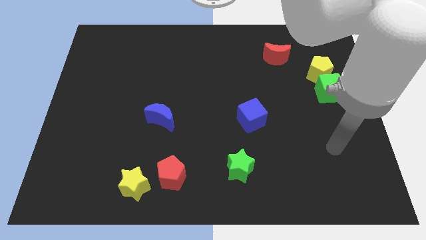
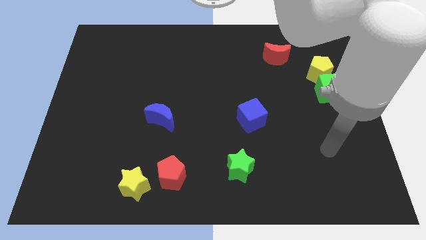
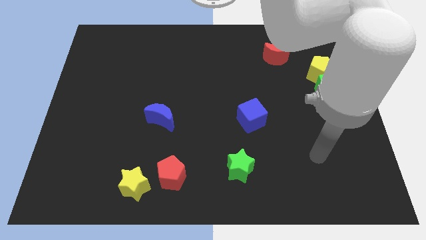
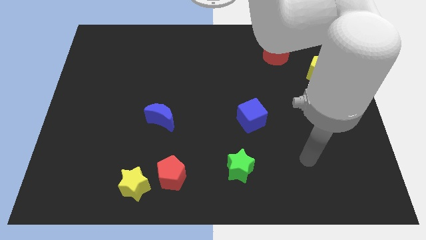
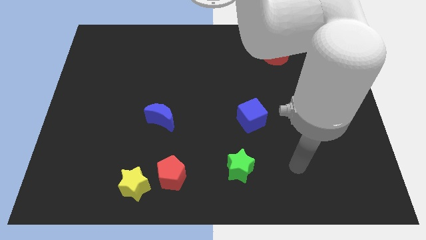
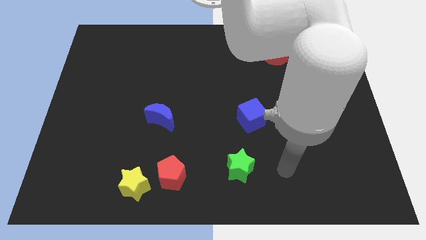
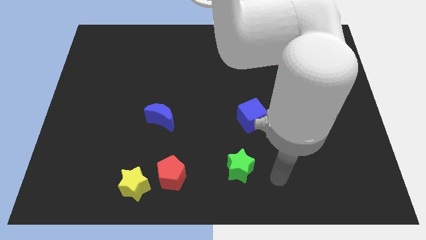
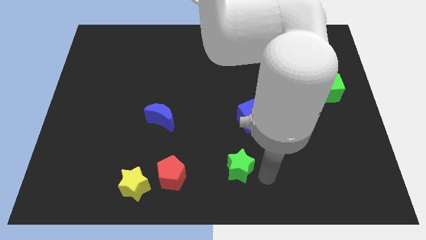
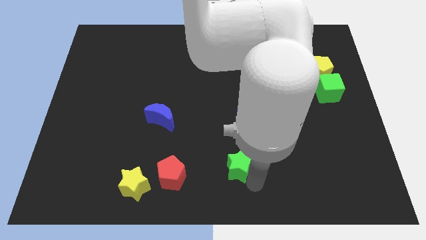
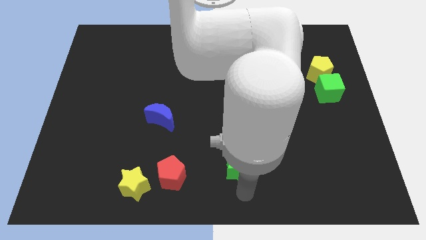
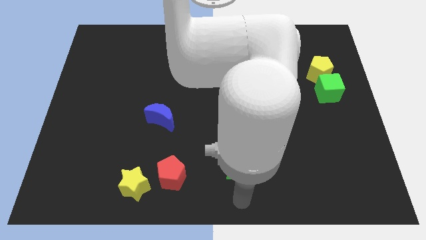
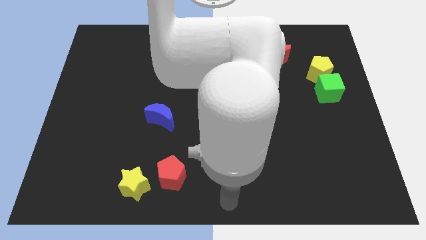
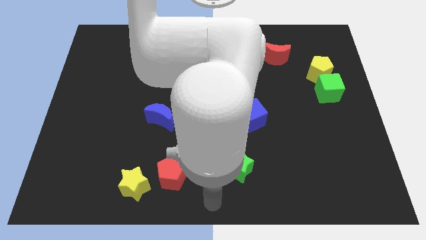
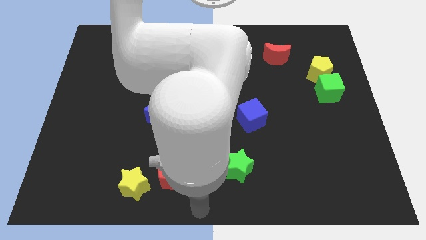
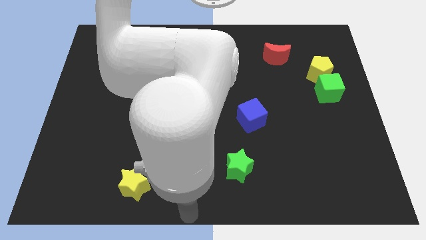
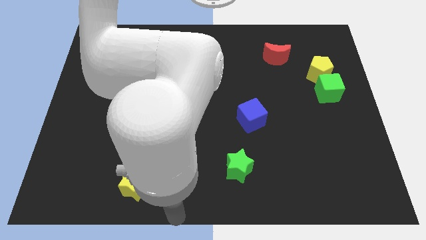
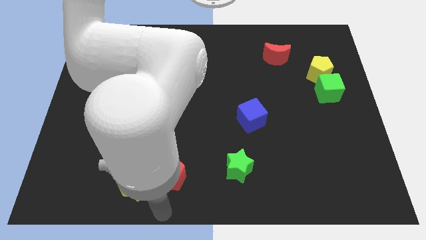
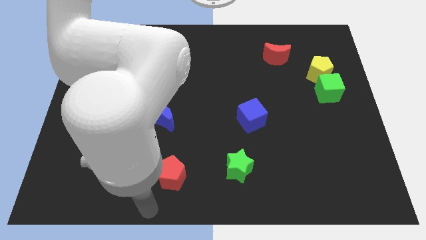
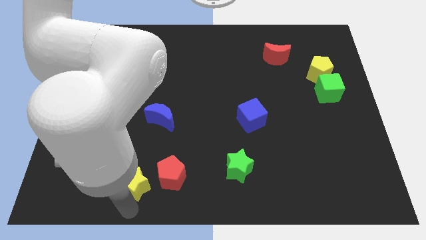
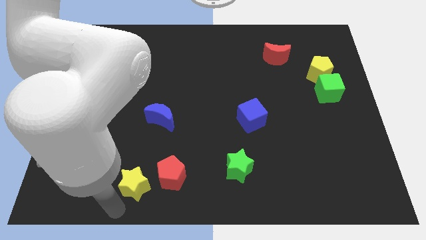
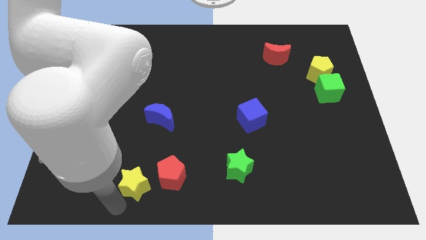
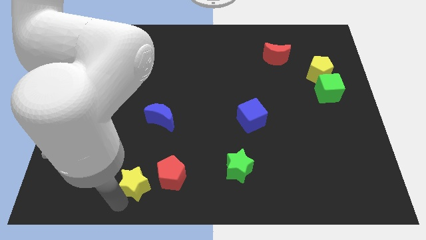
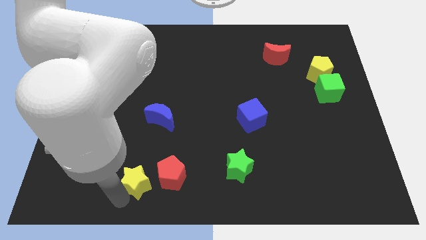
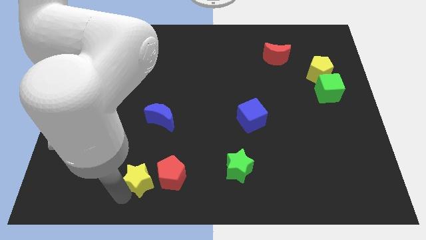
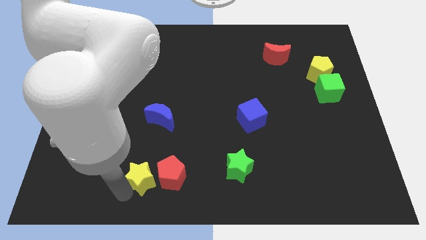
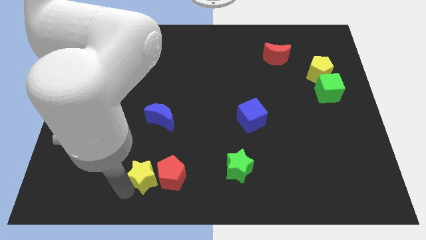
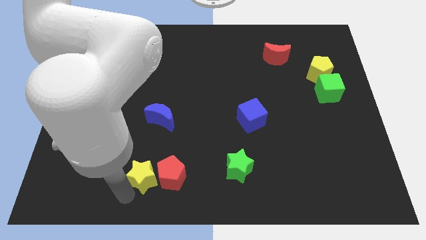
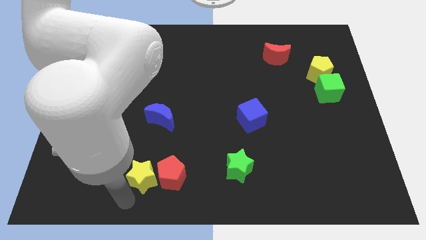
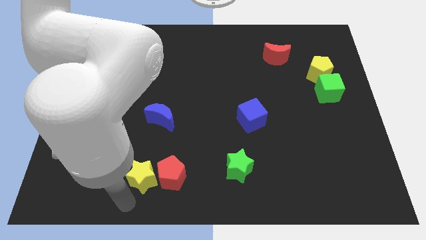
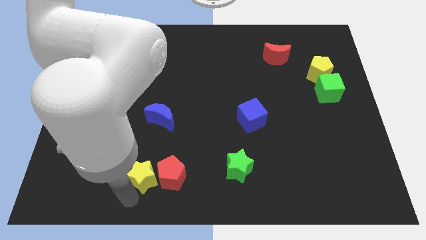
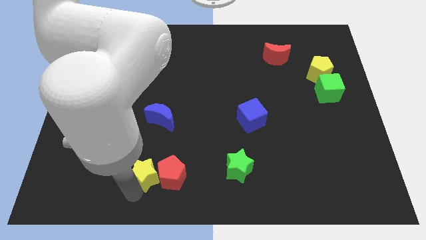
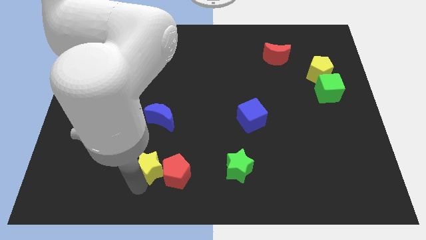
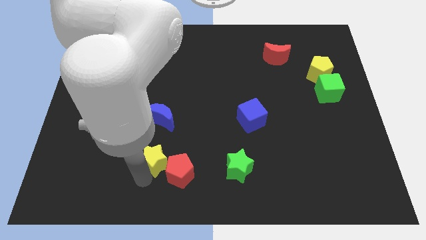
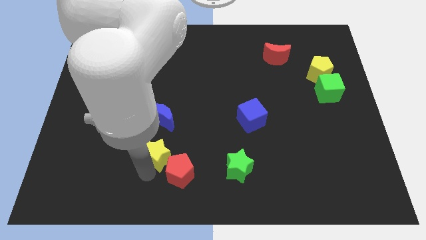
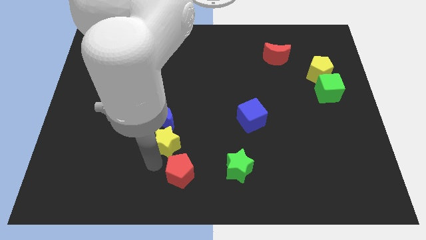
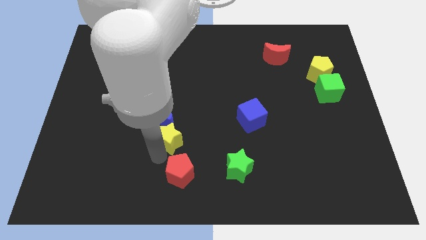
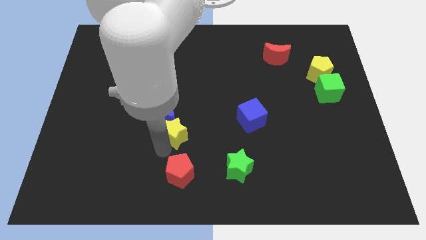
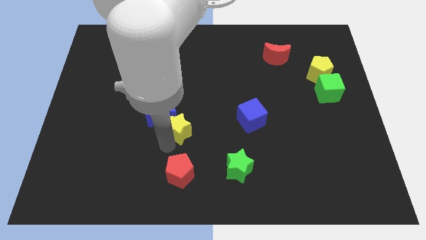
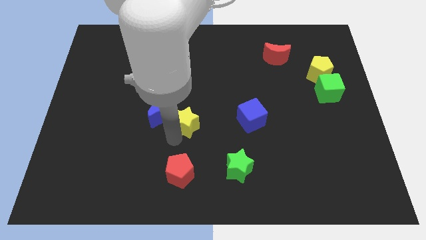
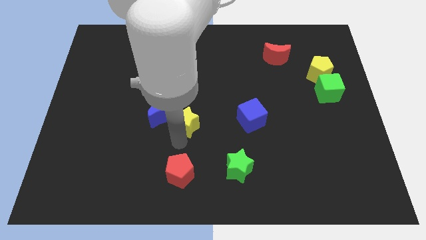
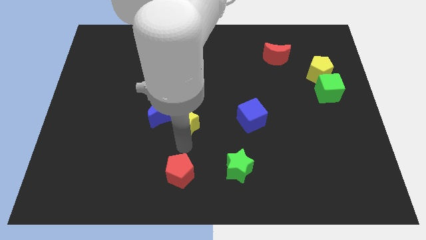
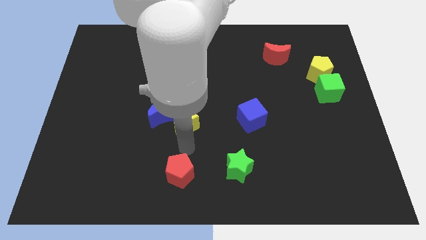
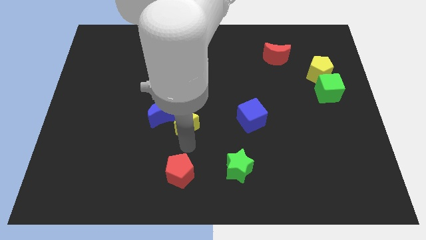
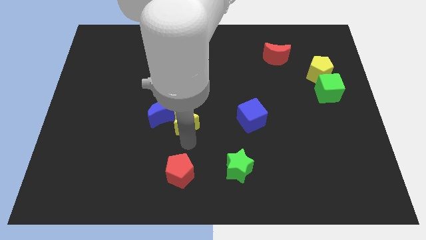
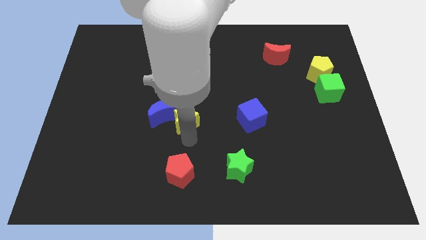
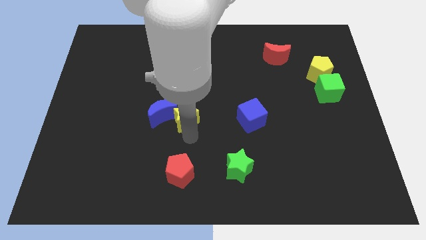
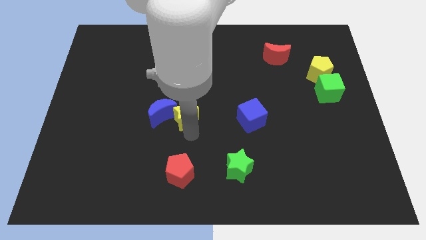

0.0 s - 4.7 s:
slide the yellow star to the top right side of the blue moon

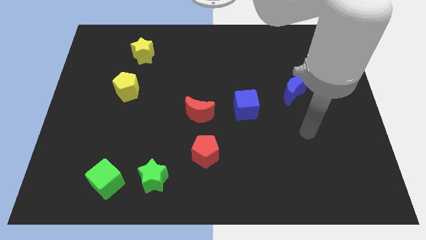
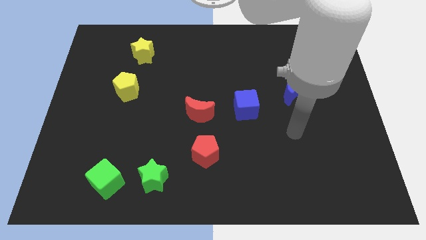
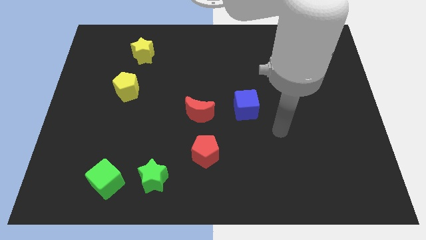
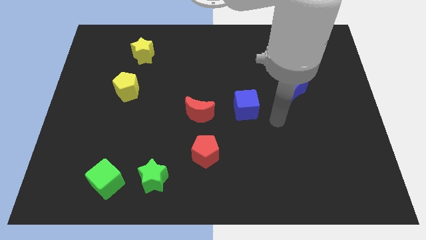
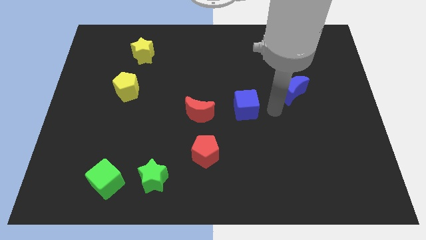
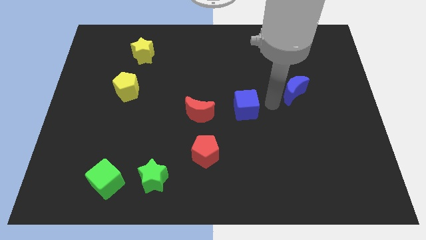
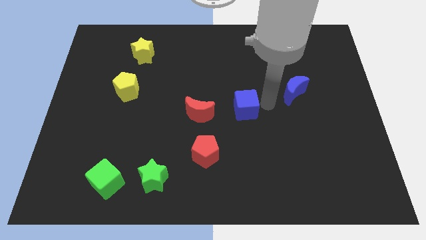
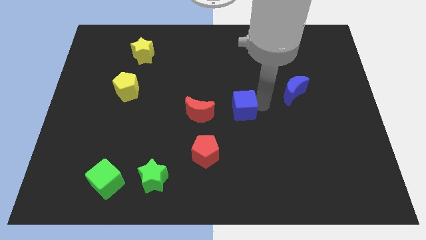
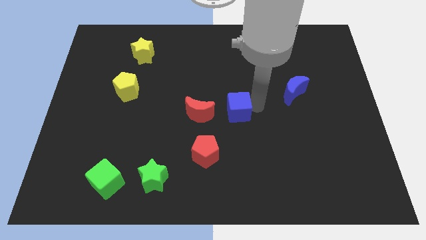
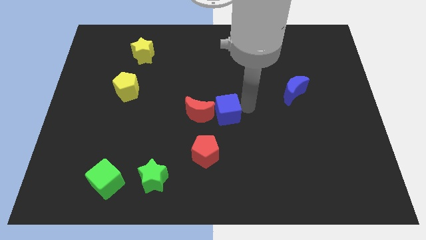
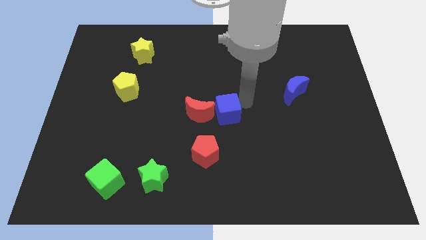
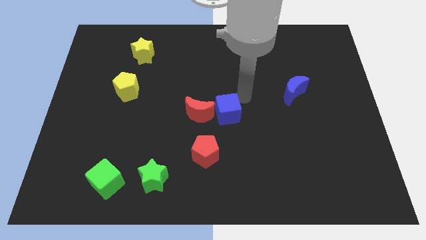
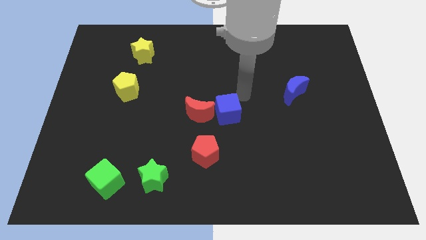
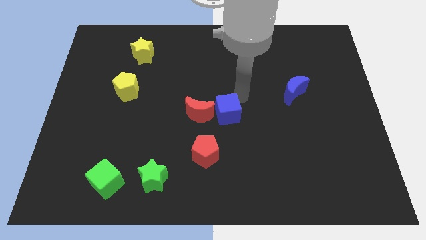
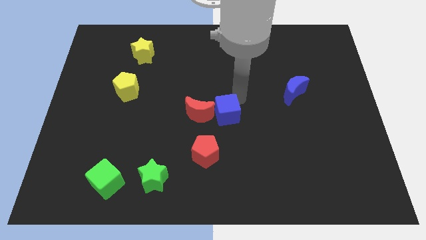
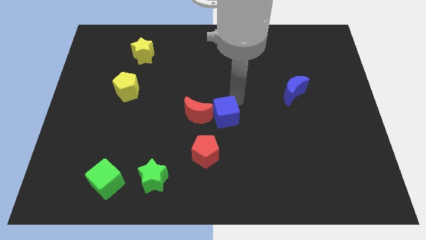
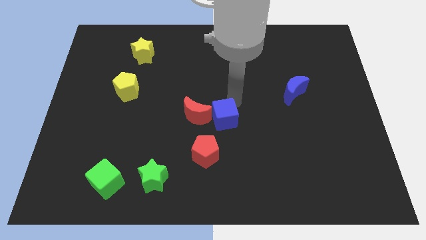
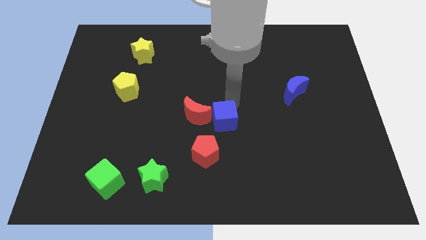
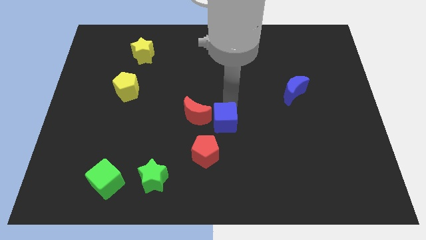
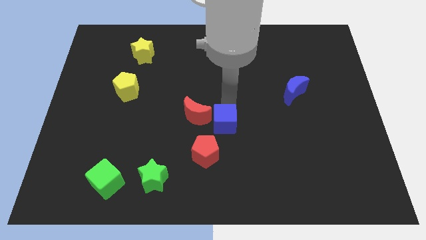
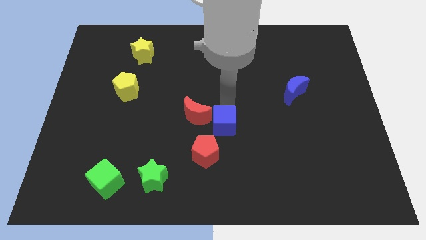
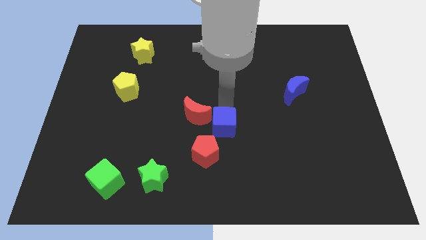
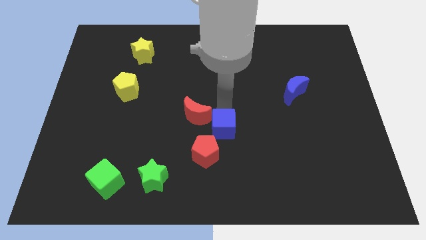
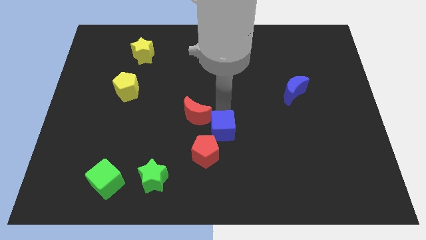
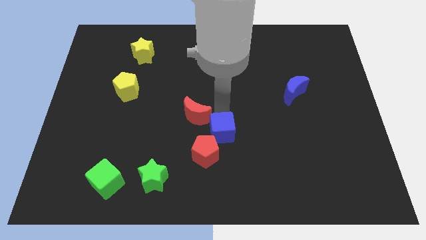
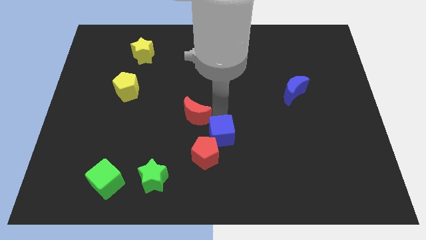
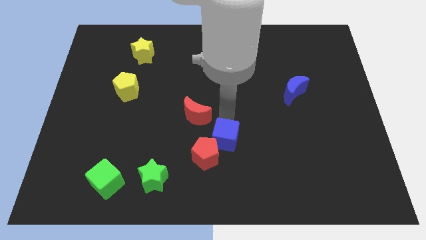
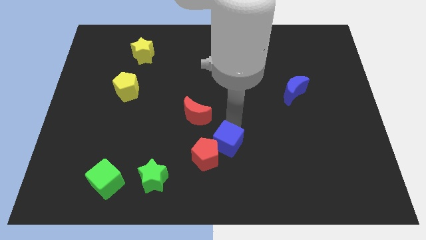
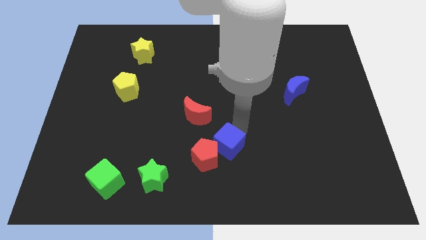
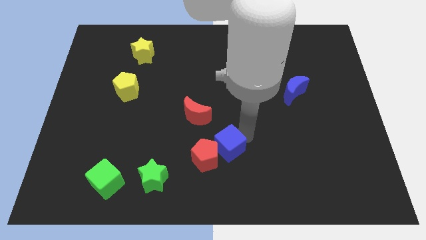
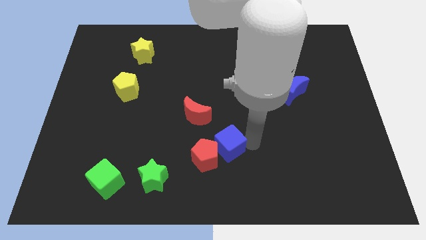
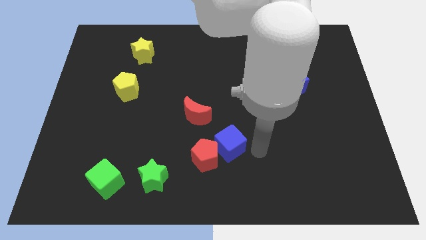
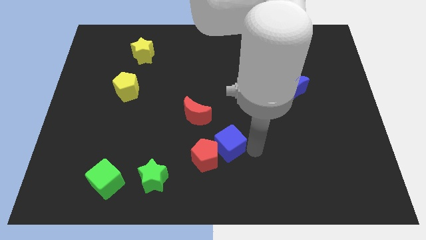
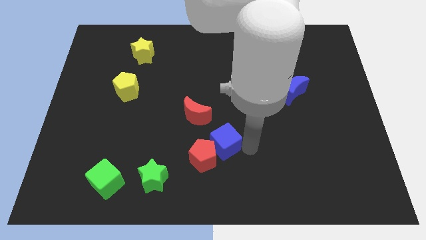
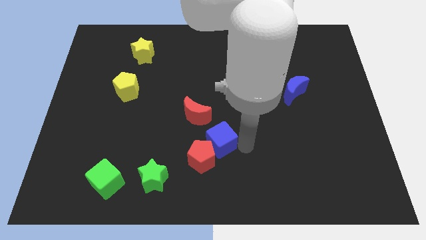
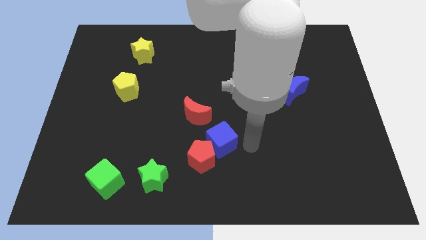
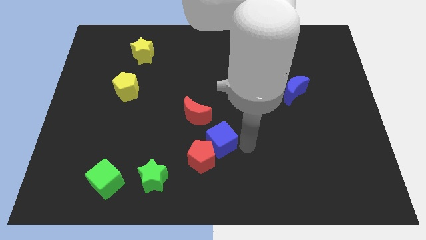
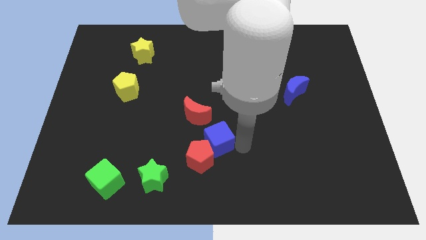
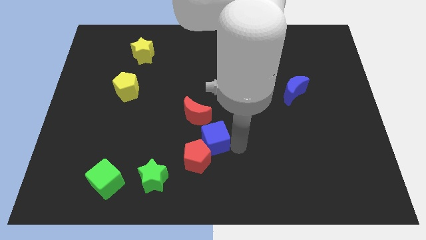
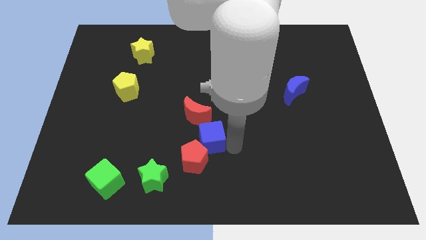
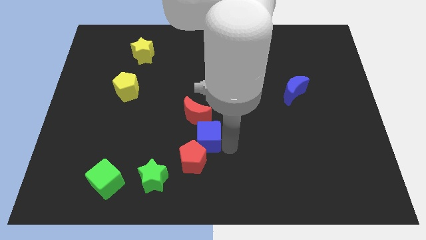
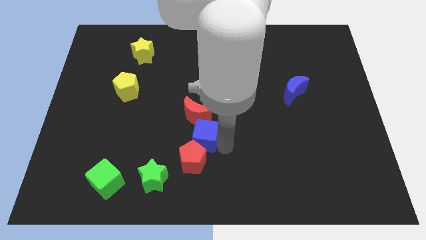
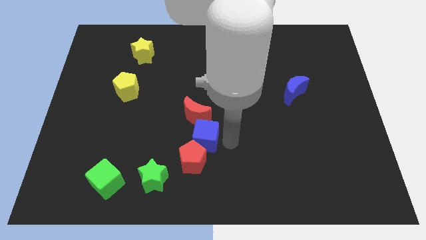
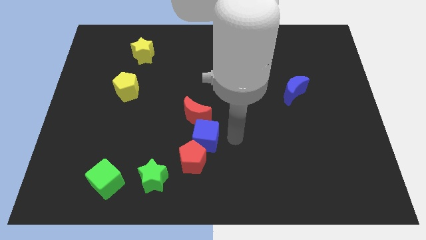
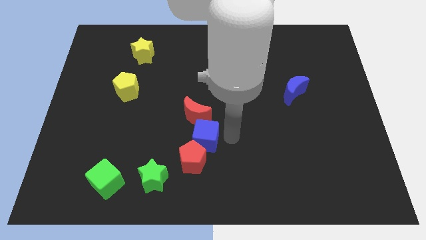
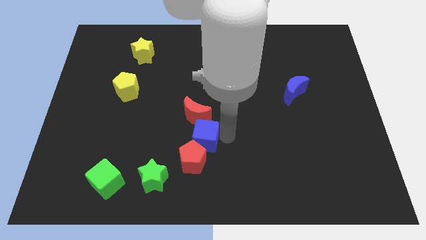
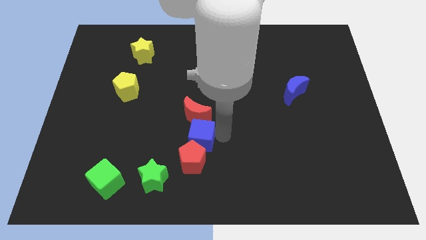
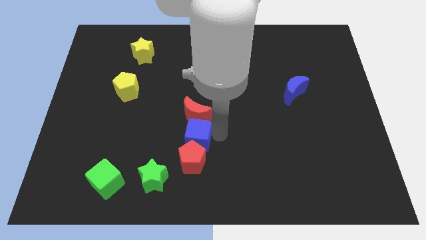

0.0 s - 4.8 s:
slide the blue cube to the top left of the red pentagon
